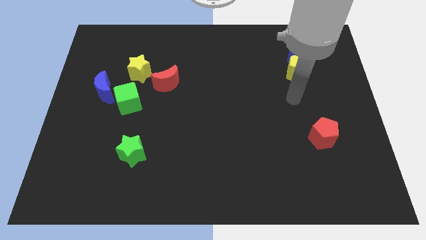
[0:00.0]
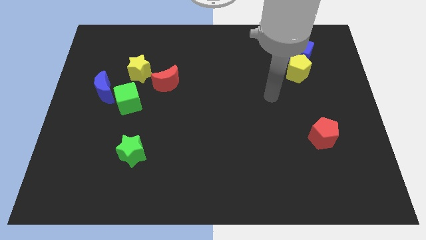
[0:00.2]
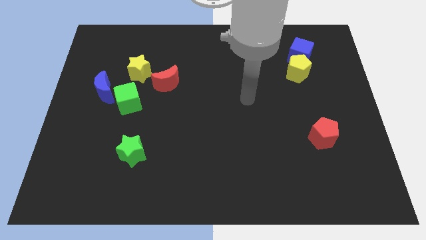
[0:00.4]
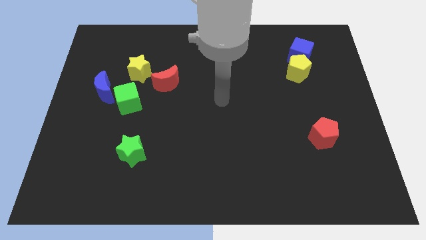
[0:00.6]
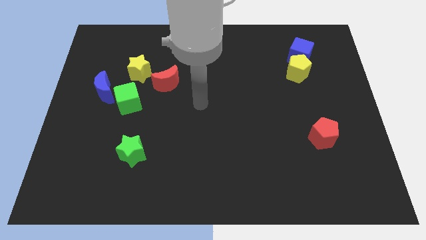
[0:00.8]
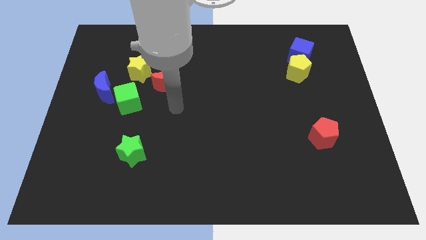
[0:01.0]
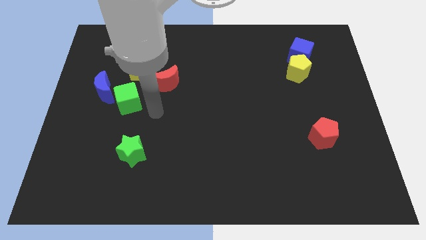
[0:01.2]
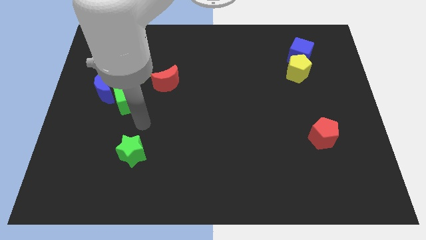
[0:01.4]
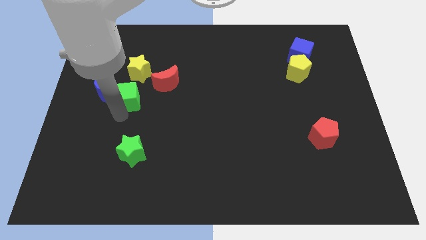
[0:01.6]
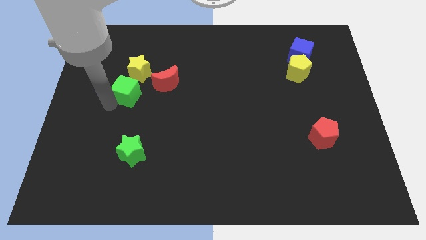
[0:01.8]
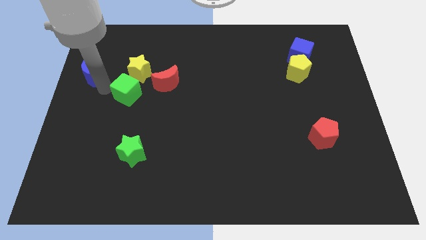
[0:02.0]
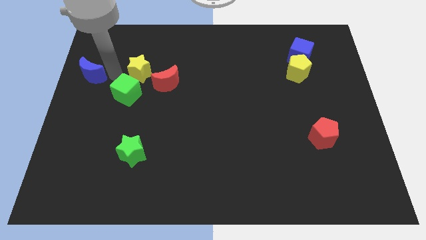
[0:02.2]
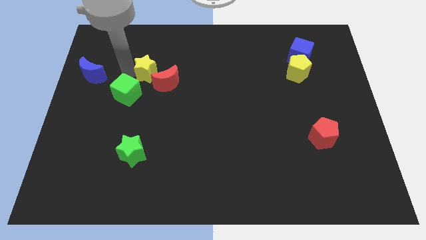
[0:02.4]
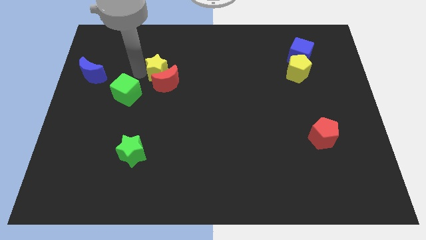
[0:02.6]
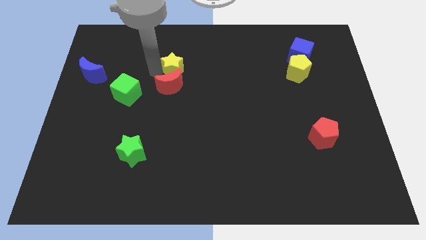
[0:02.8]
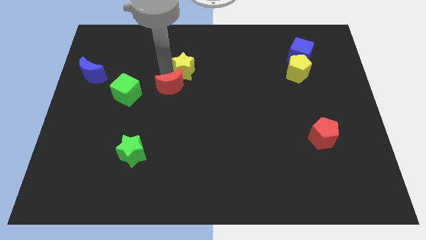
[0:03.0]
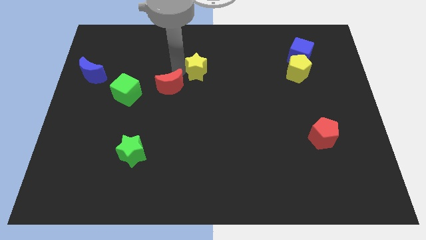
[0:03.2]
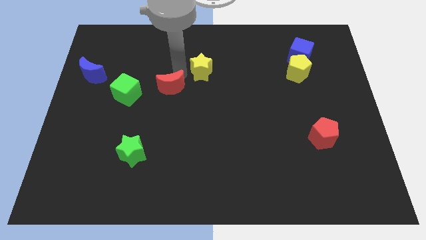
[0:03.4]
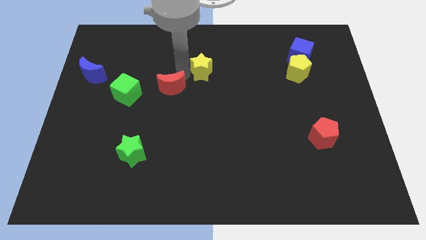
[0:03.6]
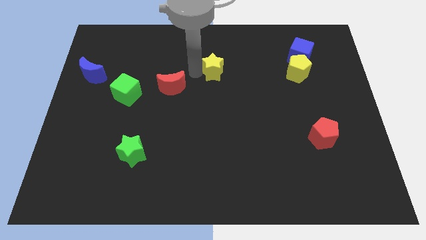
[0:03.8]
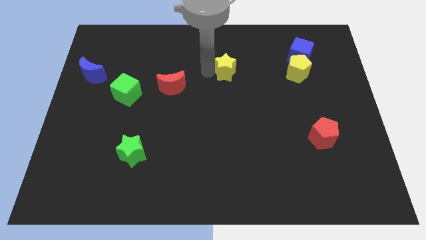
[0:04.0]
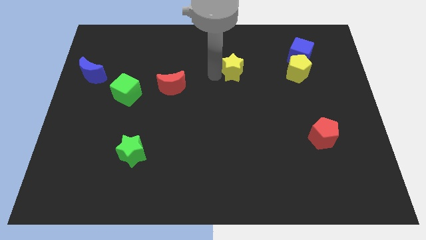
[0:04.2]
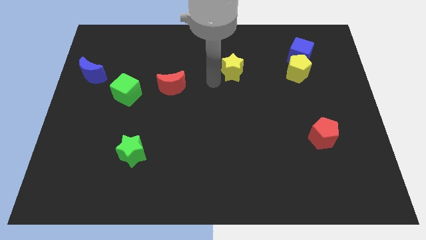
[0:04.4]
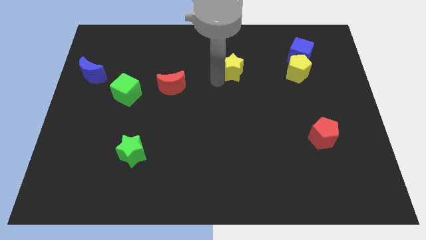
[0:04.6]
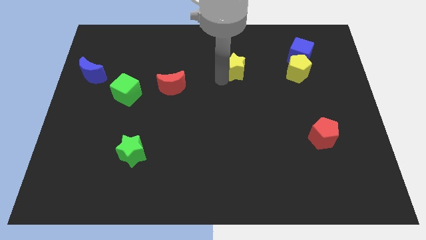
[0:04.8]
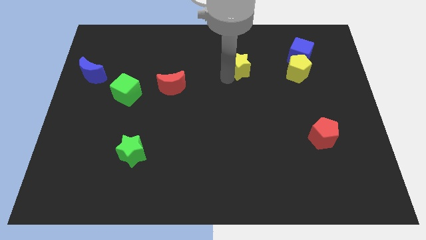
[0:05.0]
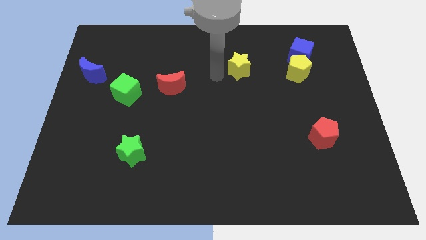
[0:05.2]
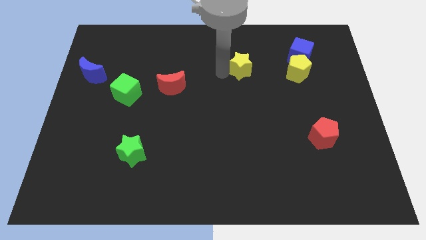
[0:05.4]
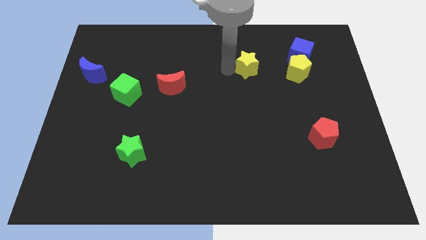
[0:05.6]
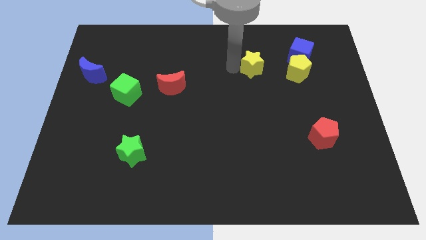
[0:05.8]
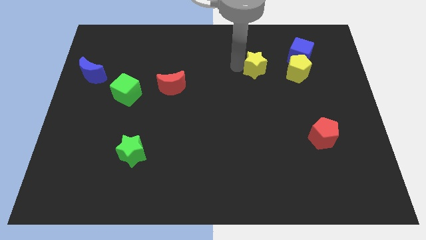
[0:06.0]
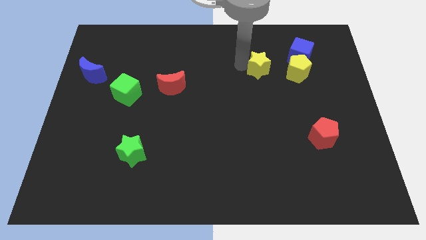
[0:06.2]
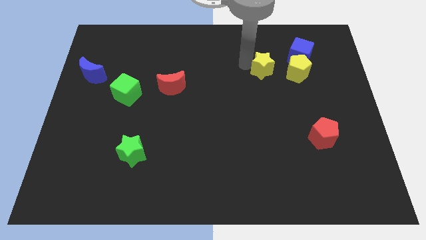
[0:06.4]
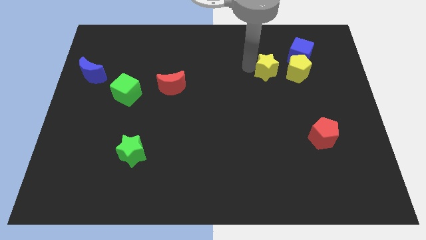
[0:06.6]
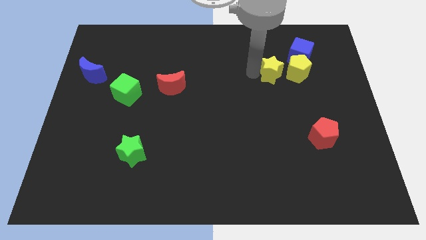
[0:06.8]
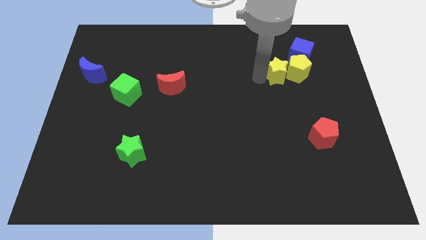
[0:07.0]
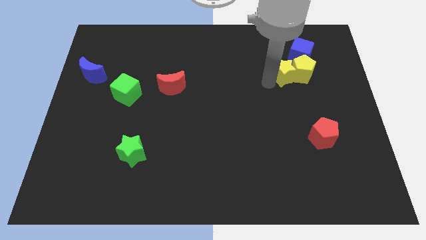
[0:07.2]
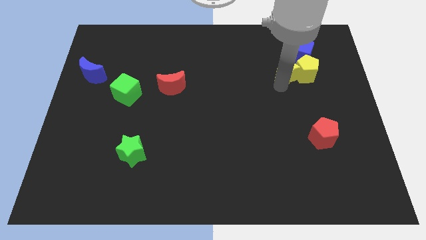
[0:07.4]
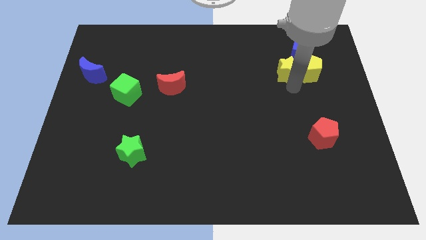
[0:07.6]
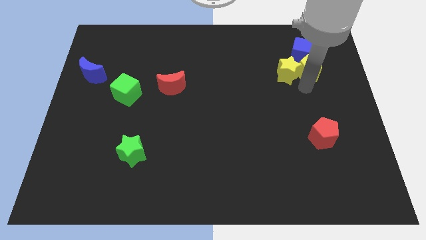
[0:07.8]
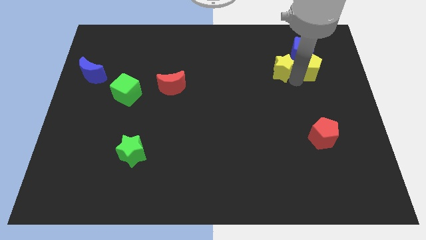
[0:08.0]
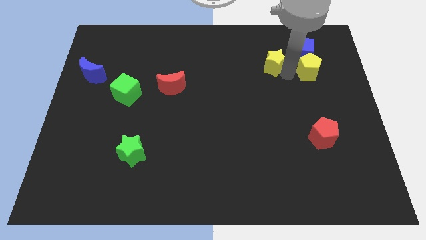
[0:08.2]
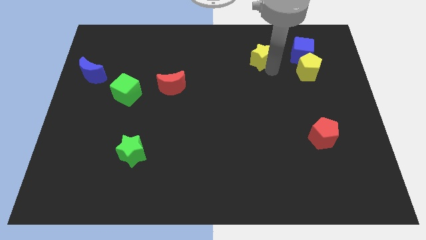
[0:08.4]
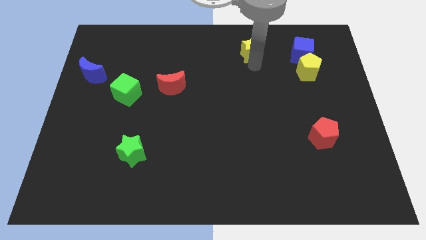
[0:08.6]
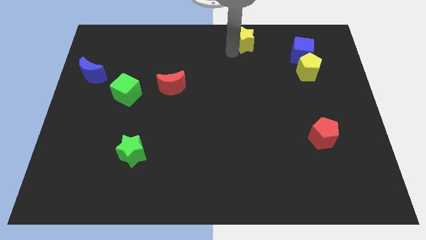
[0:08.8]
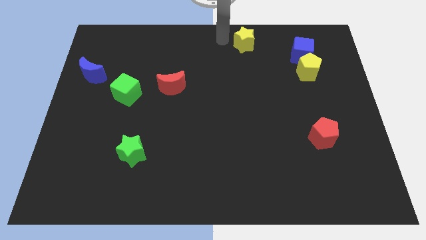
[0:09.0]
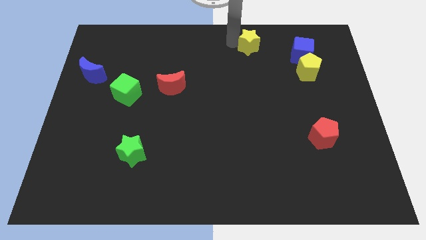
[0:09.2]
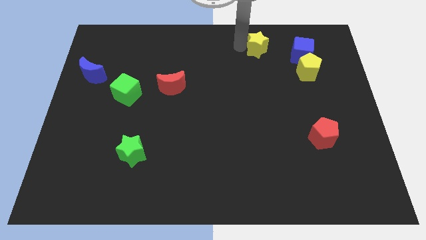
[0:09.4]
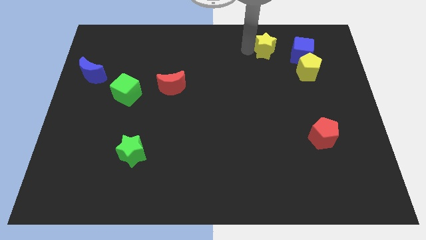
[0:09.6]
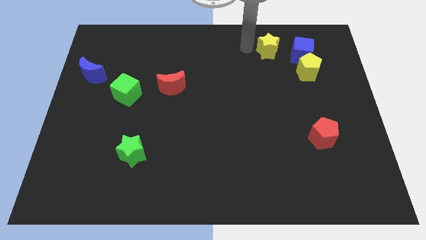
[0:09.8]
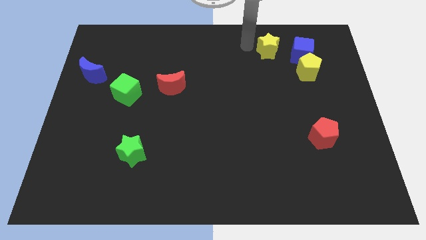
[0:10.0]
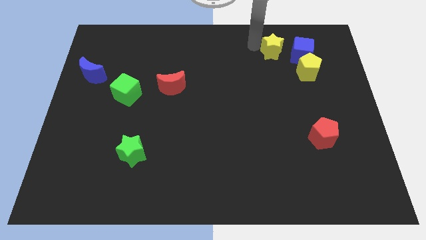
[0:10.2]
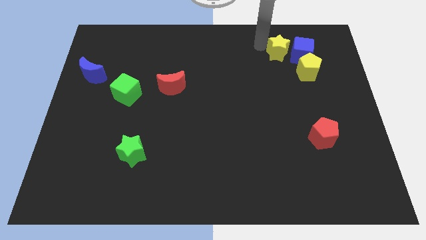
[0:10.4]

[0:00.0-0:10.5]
put the yellow star towards the blue cube

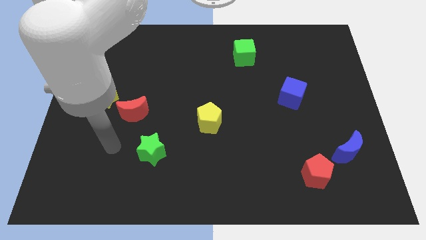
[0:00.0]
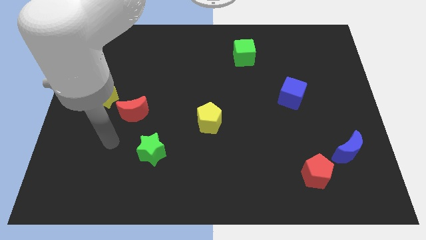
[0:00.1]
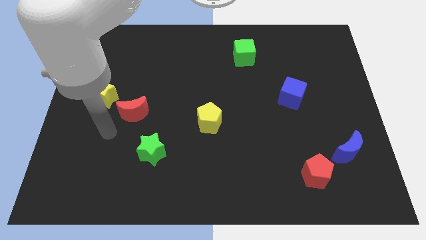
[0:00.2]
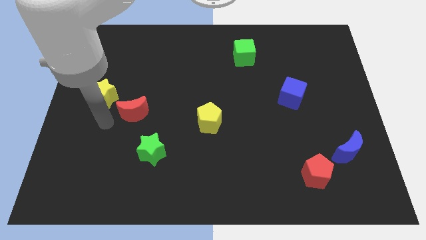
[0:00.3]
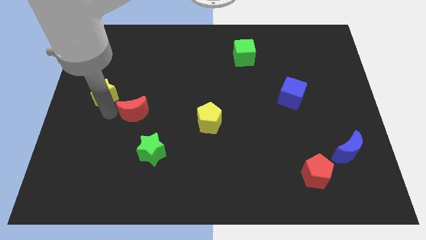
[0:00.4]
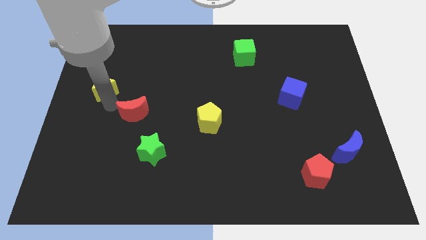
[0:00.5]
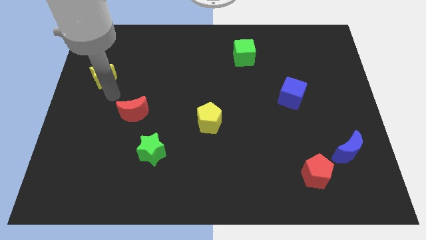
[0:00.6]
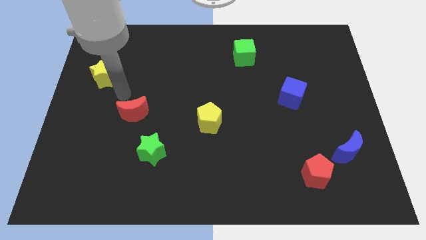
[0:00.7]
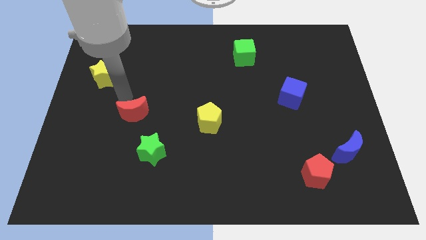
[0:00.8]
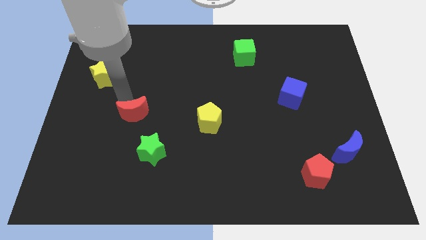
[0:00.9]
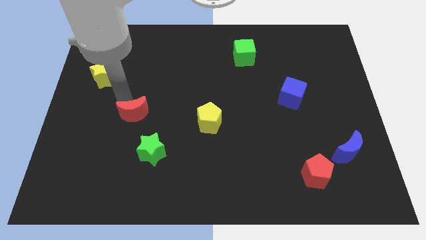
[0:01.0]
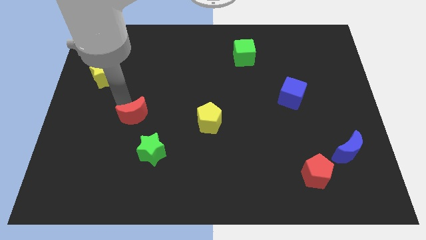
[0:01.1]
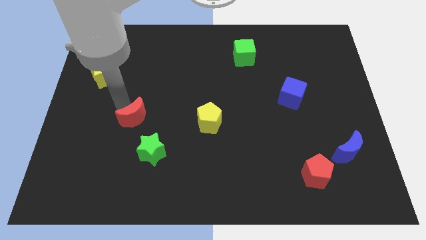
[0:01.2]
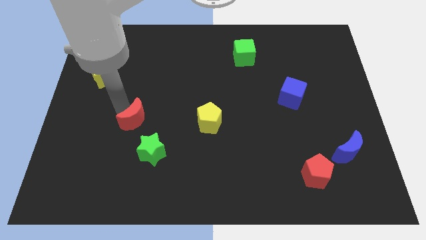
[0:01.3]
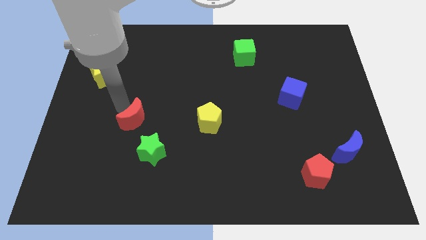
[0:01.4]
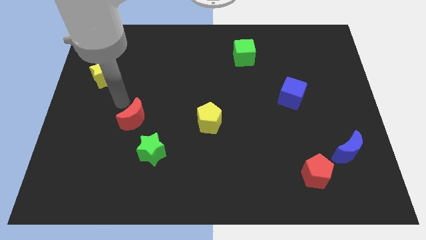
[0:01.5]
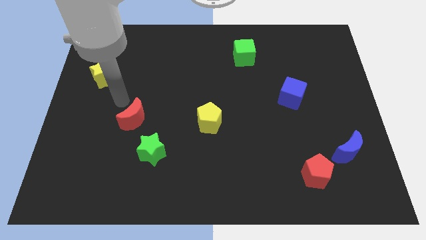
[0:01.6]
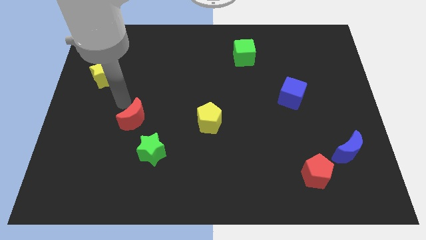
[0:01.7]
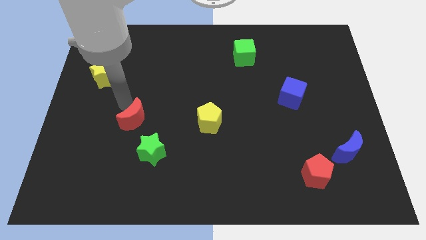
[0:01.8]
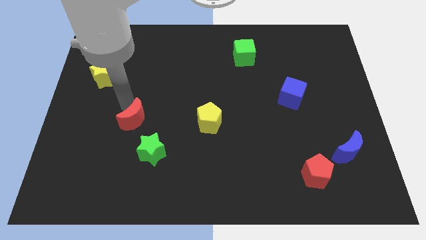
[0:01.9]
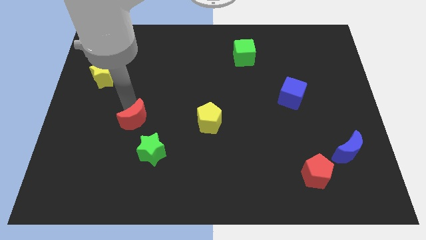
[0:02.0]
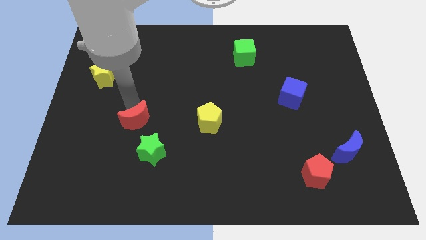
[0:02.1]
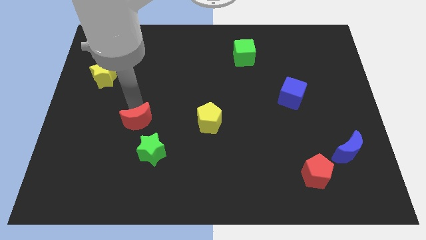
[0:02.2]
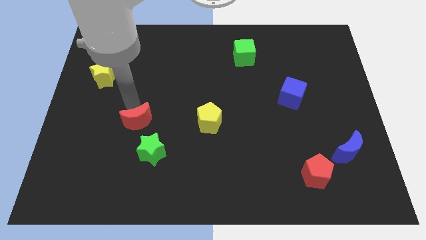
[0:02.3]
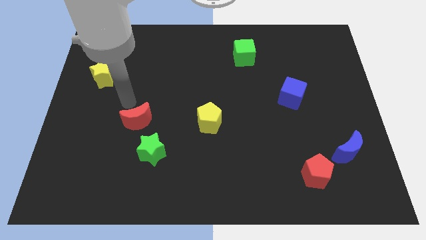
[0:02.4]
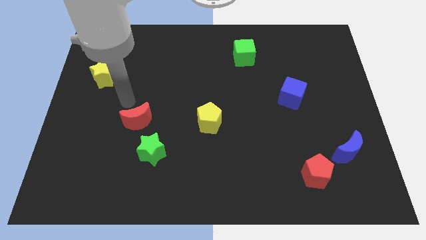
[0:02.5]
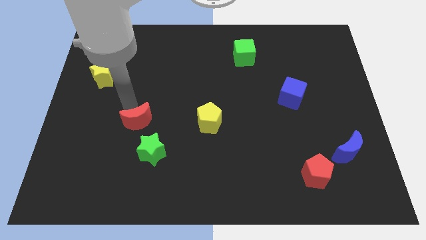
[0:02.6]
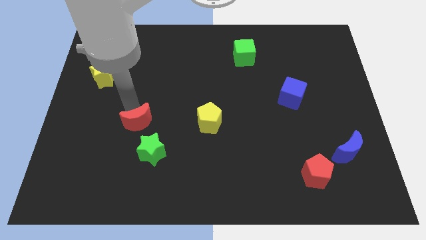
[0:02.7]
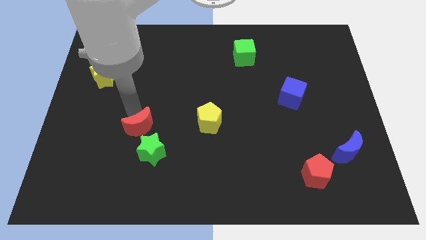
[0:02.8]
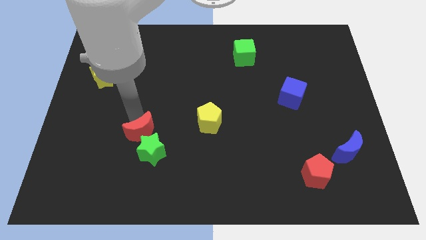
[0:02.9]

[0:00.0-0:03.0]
push the red moon next to the green star
